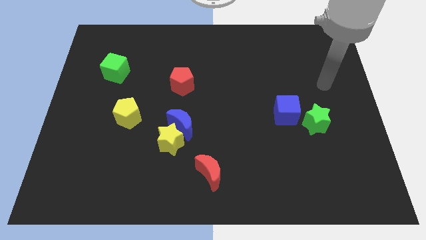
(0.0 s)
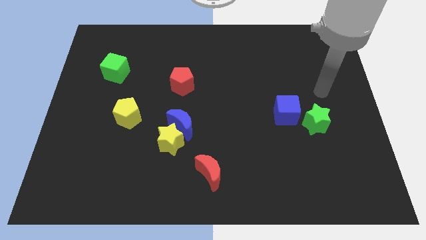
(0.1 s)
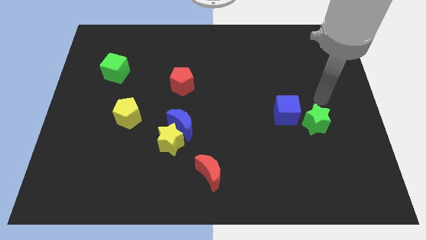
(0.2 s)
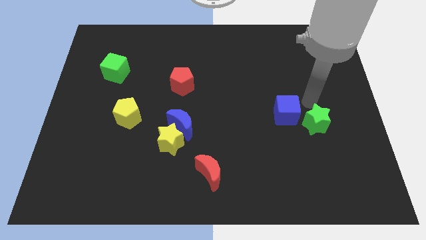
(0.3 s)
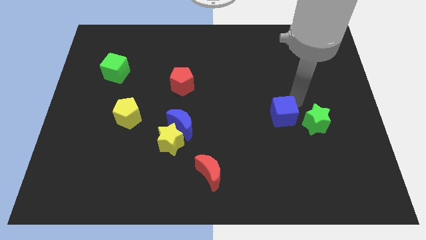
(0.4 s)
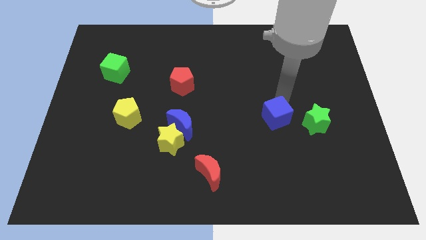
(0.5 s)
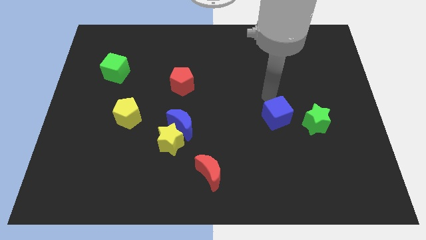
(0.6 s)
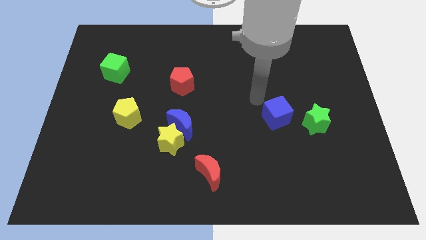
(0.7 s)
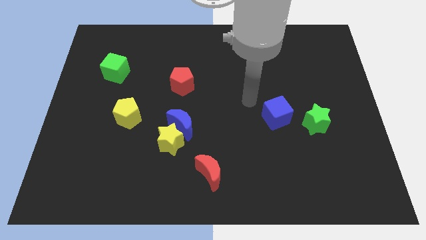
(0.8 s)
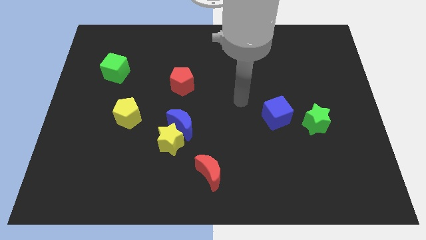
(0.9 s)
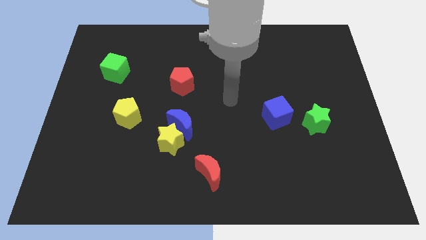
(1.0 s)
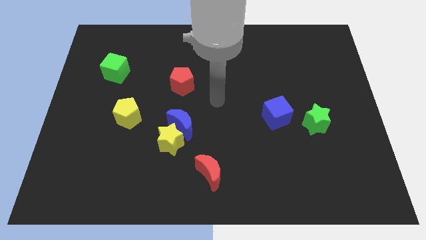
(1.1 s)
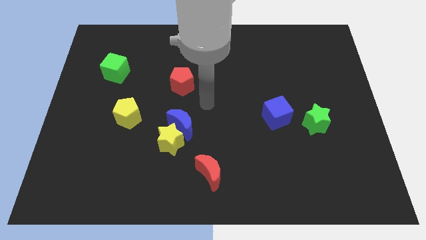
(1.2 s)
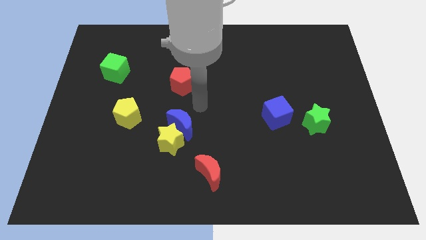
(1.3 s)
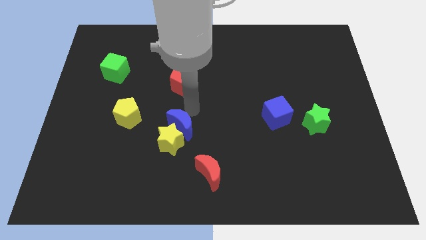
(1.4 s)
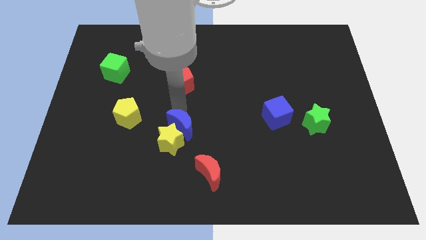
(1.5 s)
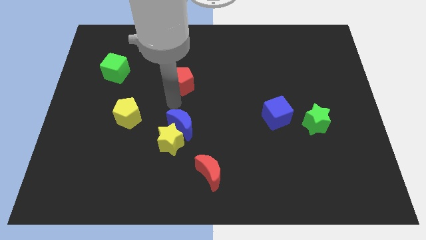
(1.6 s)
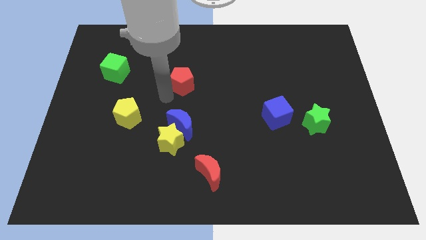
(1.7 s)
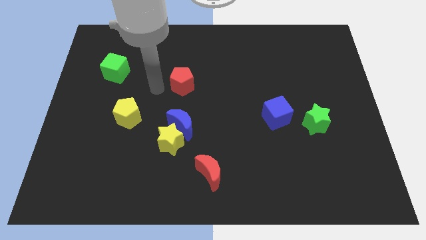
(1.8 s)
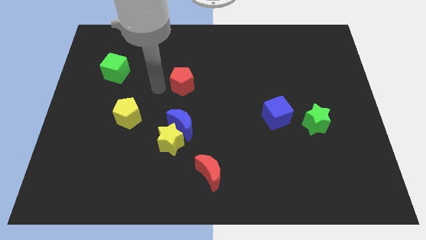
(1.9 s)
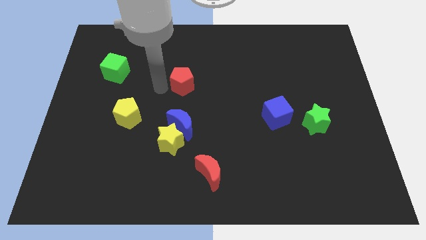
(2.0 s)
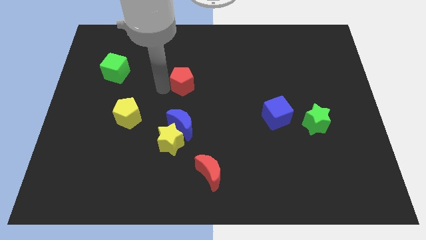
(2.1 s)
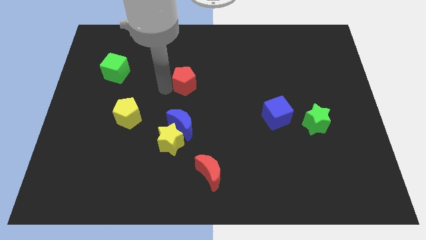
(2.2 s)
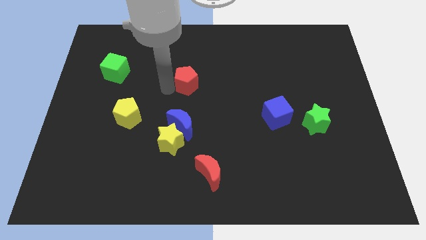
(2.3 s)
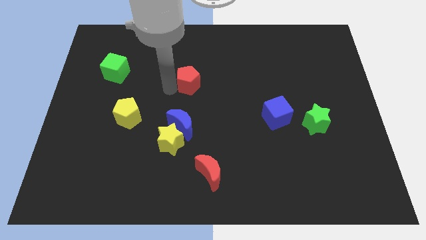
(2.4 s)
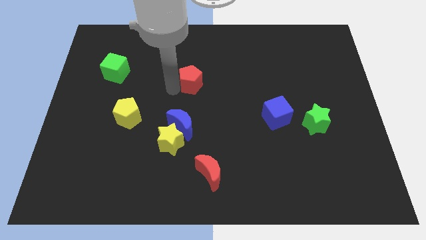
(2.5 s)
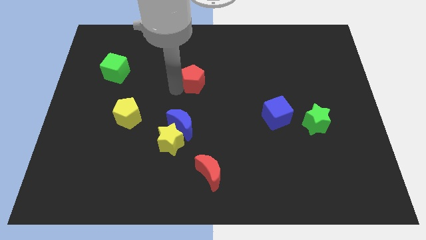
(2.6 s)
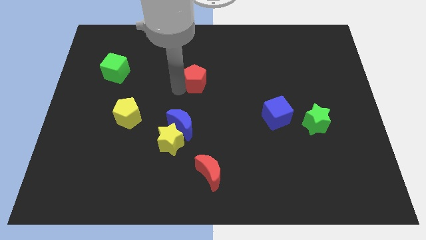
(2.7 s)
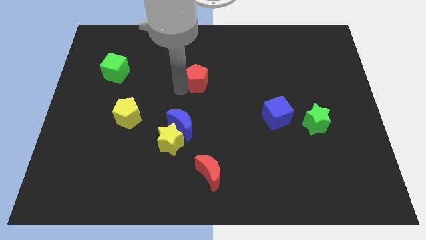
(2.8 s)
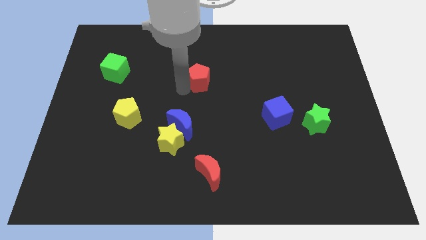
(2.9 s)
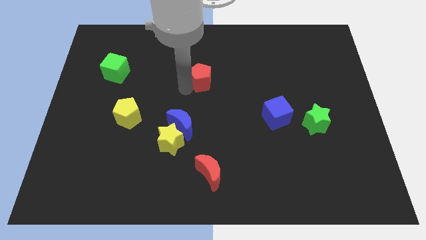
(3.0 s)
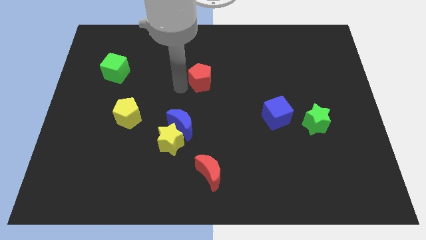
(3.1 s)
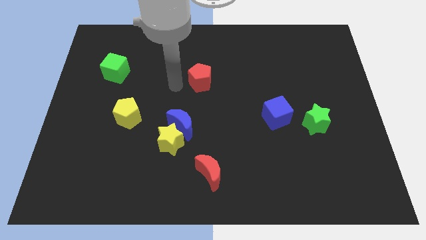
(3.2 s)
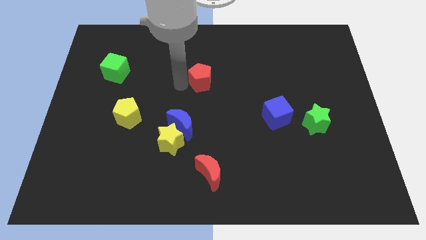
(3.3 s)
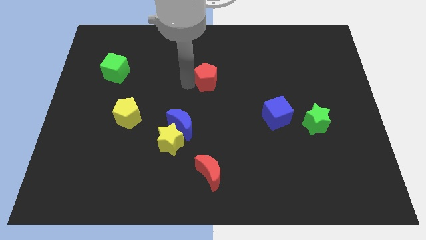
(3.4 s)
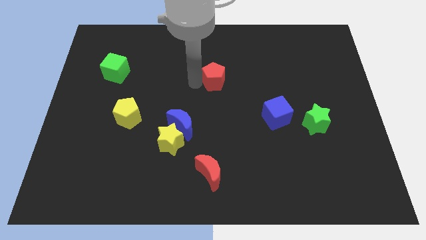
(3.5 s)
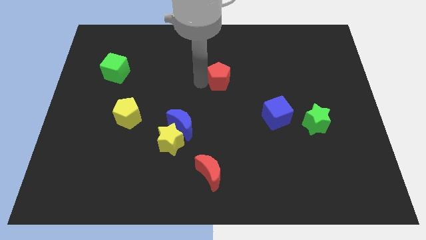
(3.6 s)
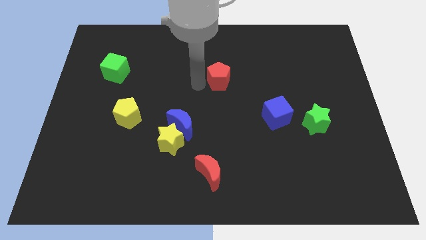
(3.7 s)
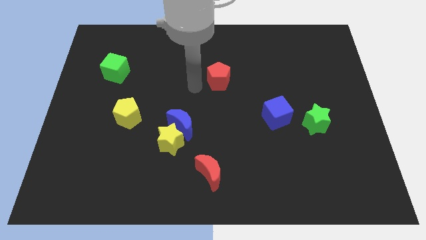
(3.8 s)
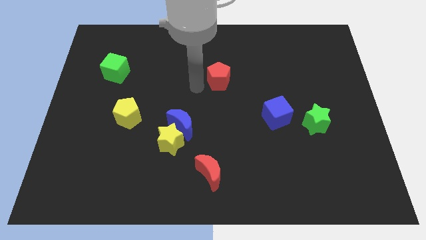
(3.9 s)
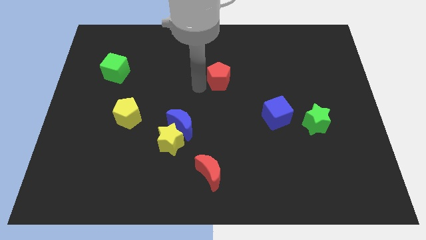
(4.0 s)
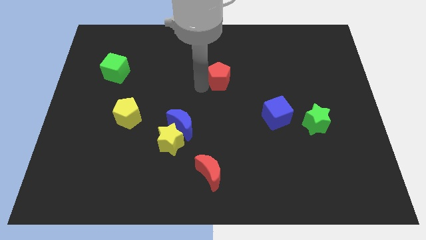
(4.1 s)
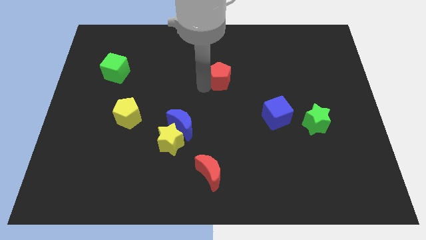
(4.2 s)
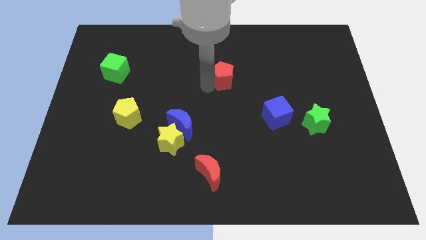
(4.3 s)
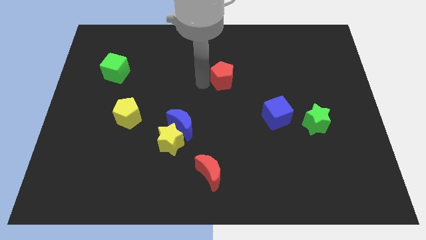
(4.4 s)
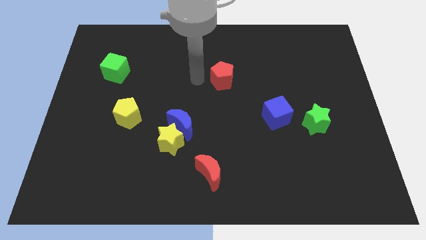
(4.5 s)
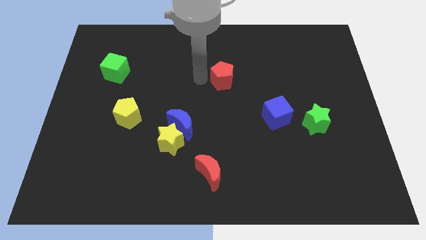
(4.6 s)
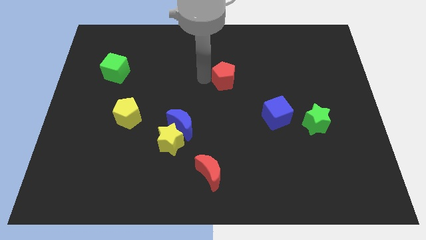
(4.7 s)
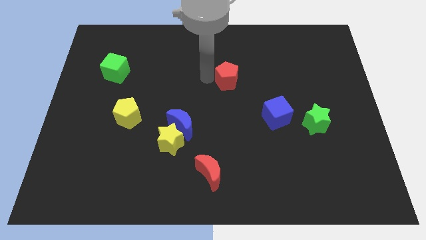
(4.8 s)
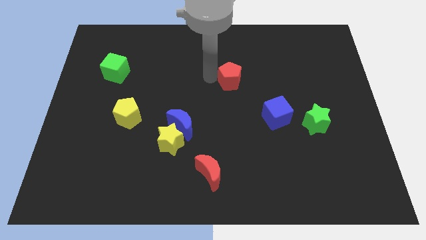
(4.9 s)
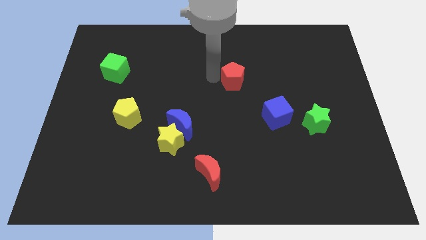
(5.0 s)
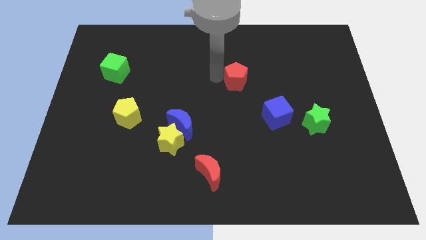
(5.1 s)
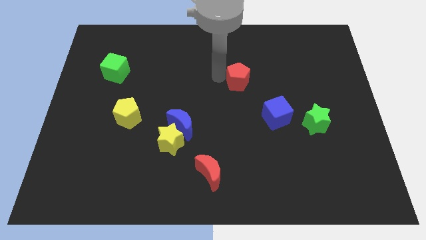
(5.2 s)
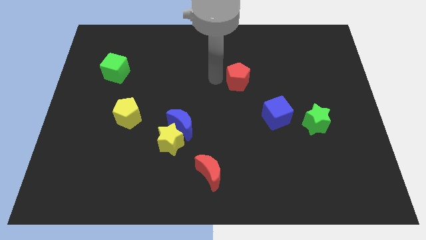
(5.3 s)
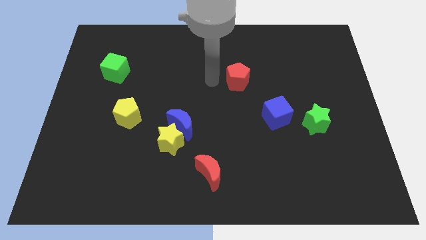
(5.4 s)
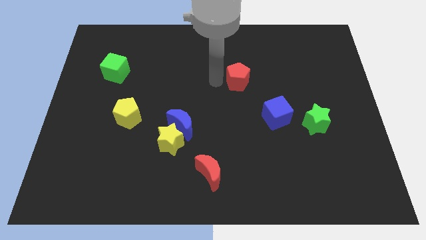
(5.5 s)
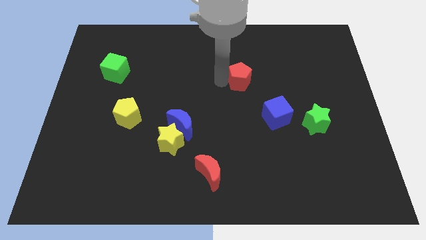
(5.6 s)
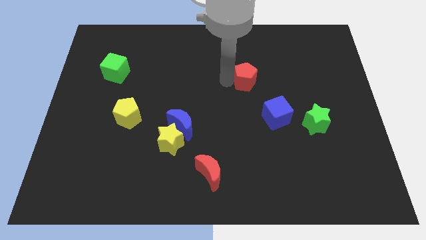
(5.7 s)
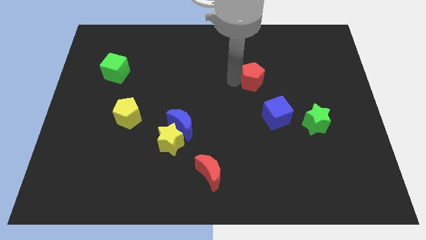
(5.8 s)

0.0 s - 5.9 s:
push the red pentagon above the blue cube

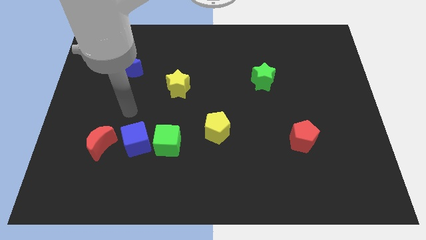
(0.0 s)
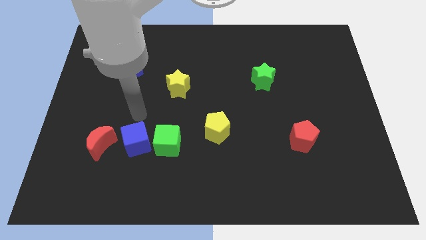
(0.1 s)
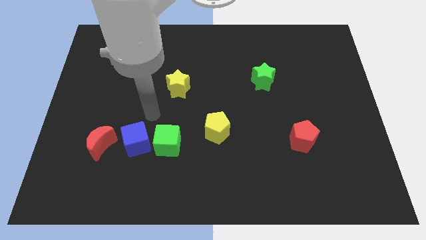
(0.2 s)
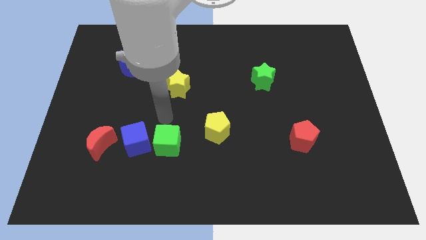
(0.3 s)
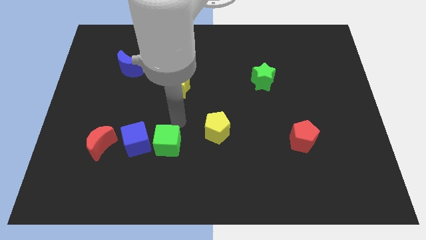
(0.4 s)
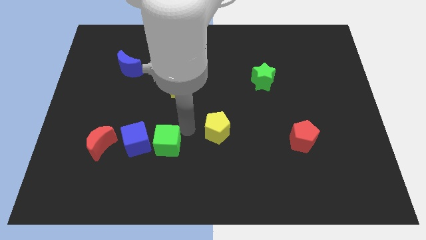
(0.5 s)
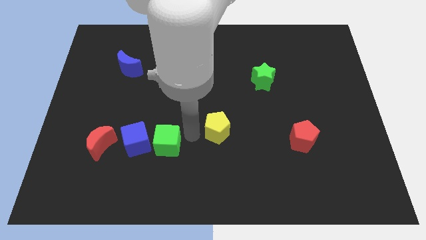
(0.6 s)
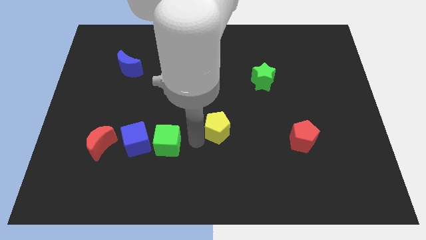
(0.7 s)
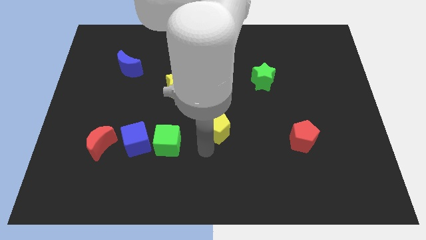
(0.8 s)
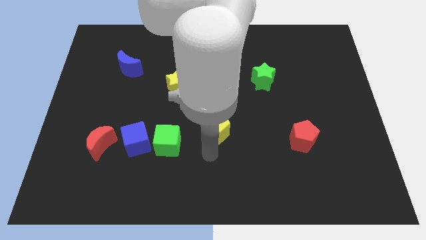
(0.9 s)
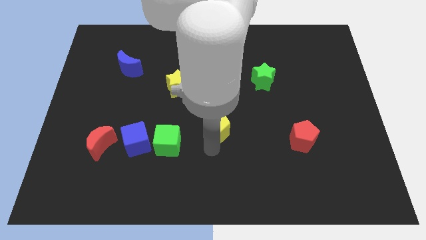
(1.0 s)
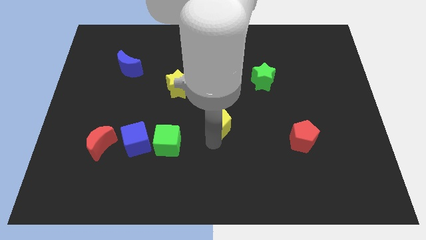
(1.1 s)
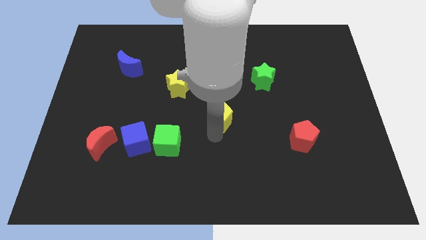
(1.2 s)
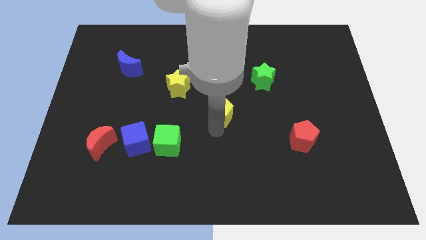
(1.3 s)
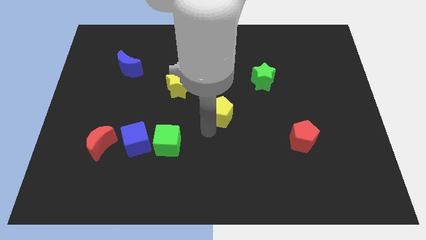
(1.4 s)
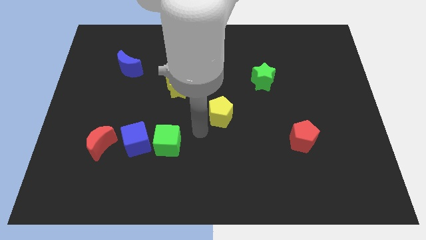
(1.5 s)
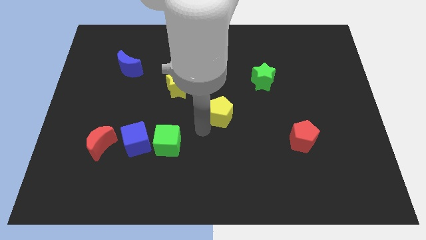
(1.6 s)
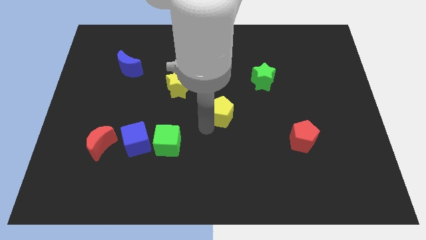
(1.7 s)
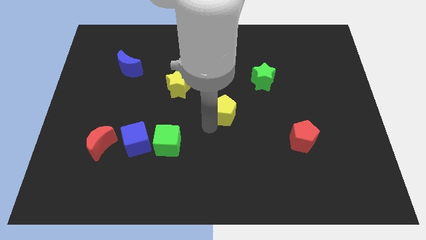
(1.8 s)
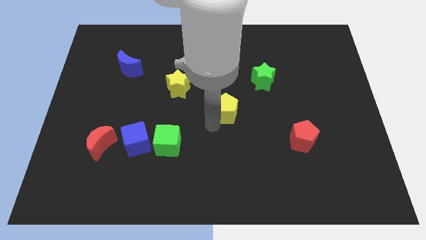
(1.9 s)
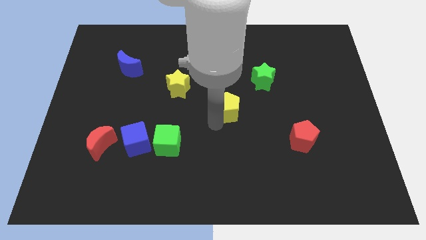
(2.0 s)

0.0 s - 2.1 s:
push the yellow pentagon to the bottom left side of the green star
